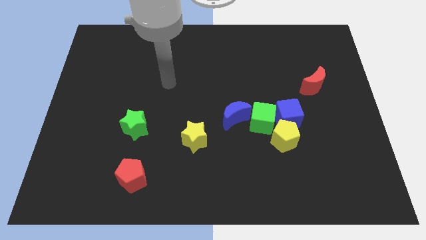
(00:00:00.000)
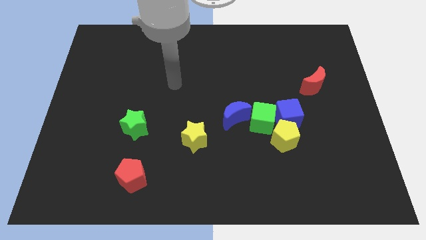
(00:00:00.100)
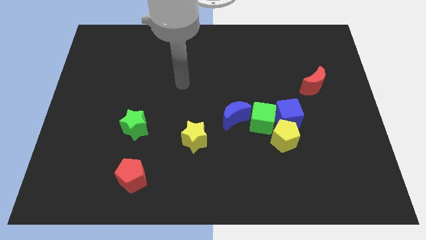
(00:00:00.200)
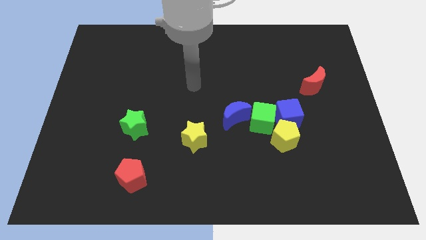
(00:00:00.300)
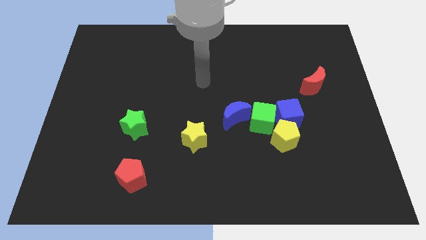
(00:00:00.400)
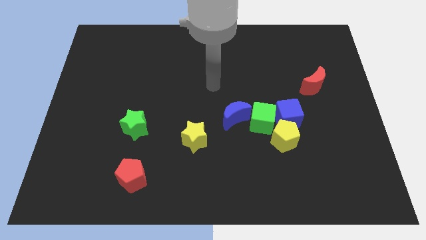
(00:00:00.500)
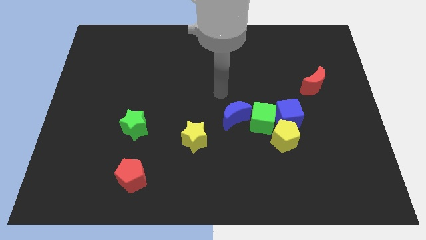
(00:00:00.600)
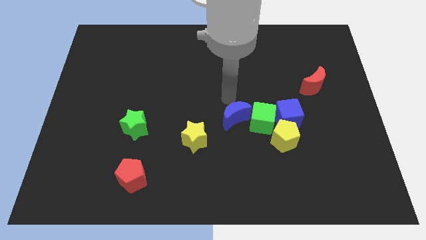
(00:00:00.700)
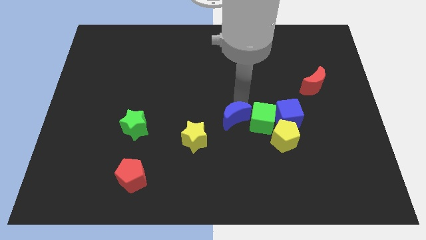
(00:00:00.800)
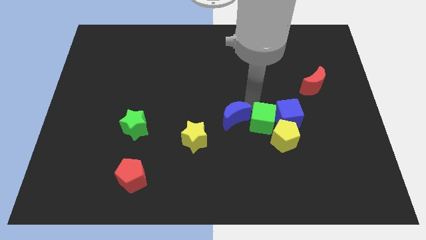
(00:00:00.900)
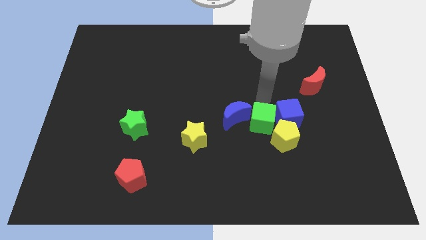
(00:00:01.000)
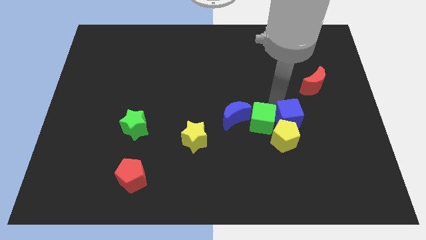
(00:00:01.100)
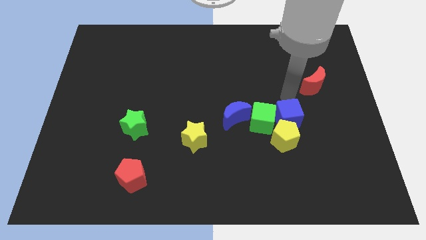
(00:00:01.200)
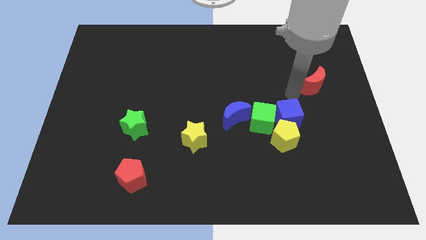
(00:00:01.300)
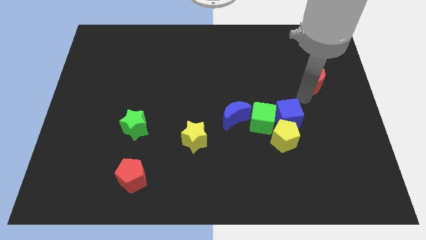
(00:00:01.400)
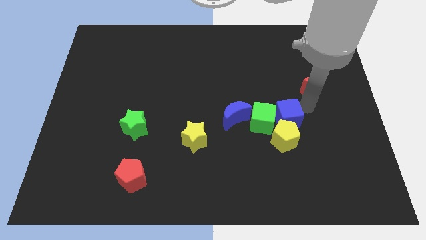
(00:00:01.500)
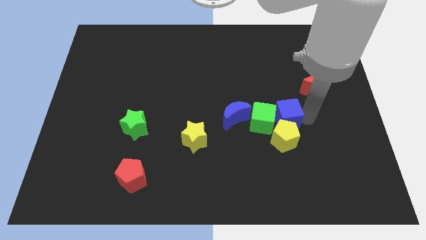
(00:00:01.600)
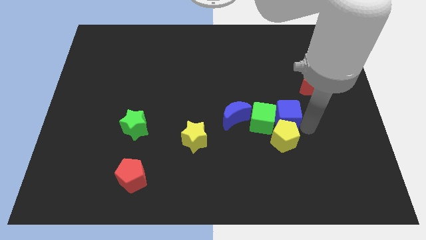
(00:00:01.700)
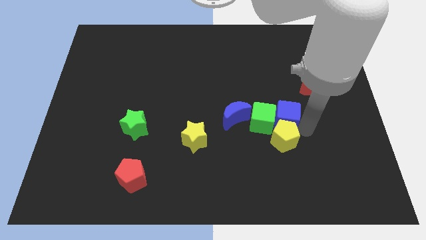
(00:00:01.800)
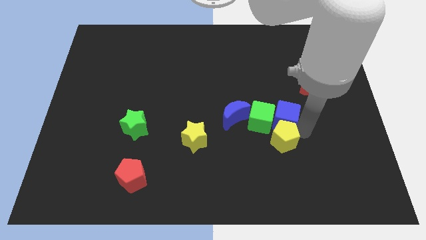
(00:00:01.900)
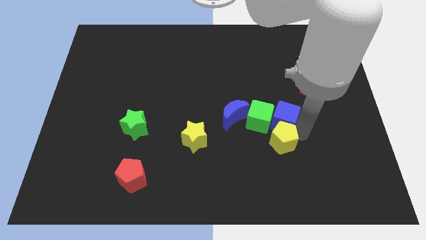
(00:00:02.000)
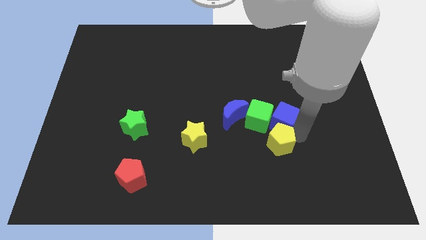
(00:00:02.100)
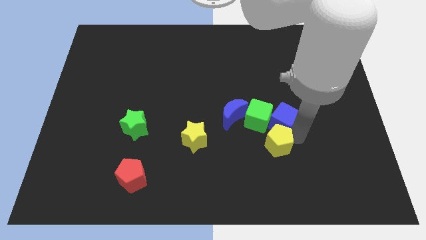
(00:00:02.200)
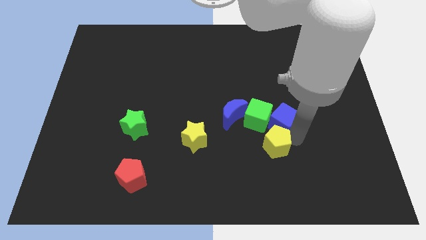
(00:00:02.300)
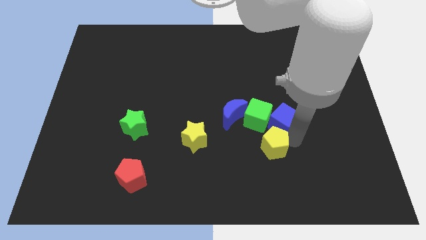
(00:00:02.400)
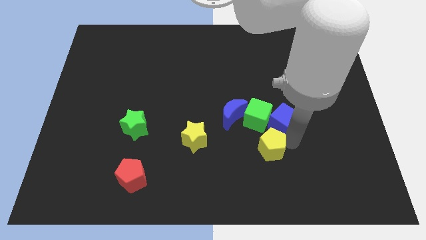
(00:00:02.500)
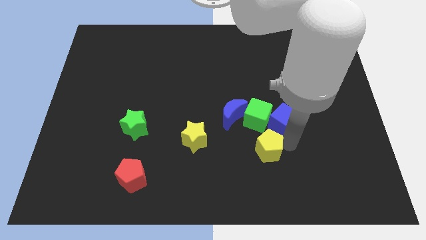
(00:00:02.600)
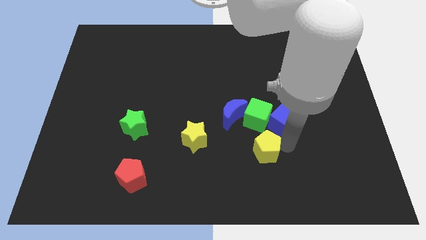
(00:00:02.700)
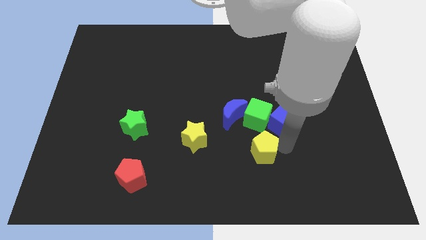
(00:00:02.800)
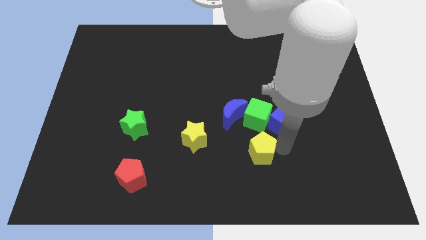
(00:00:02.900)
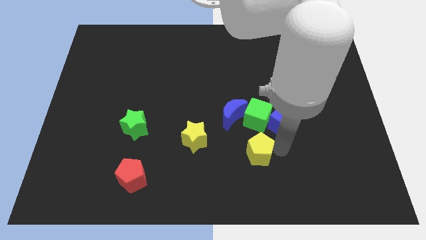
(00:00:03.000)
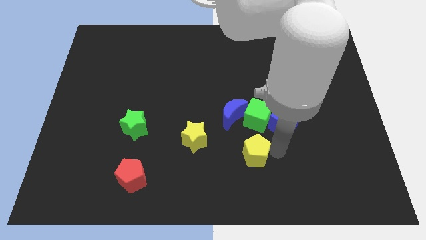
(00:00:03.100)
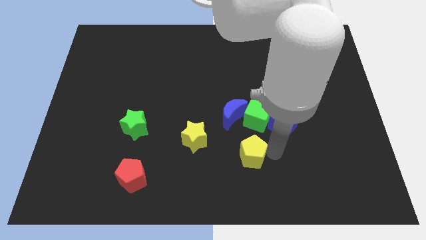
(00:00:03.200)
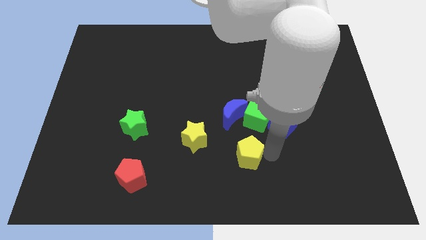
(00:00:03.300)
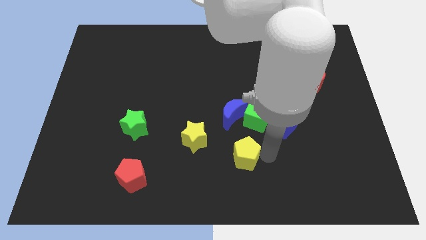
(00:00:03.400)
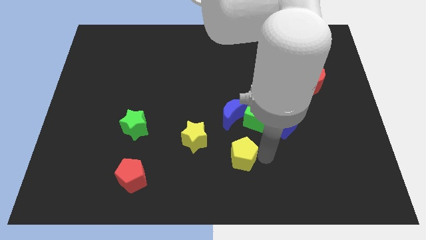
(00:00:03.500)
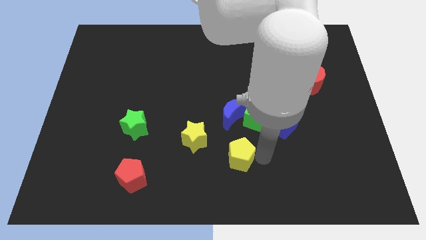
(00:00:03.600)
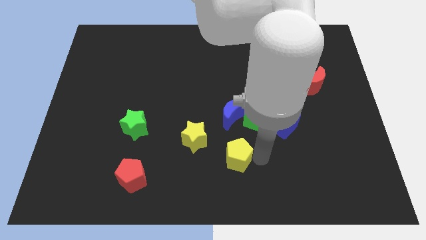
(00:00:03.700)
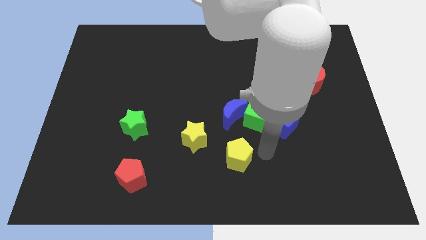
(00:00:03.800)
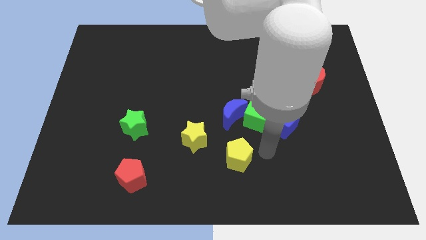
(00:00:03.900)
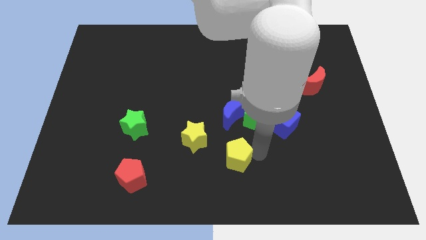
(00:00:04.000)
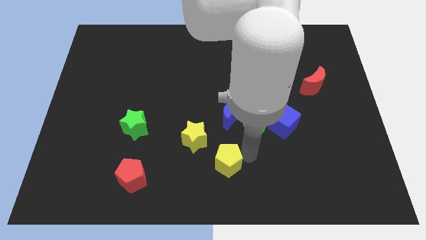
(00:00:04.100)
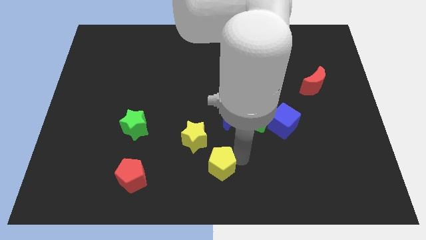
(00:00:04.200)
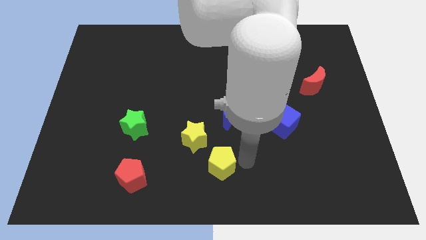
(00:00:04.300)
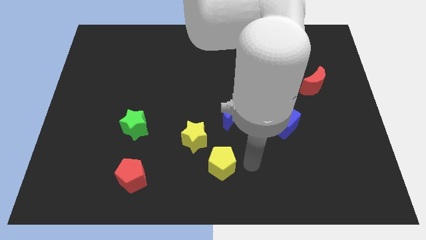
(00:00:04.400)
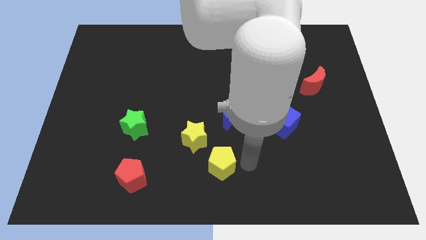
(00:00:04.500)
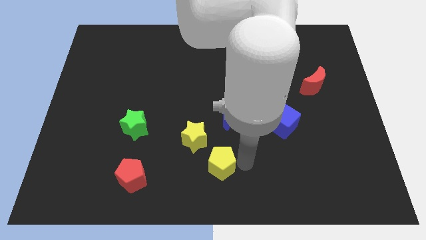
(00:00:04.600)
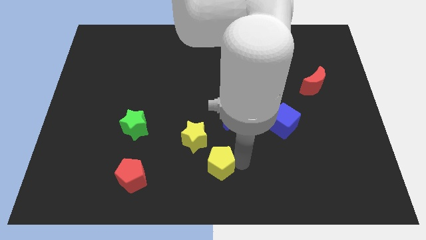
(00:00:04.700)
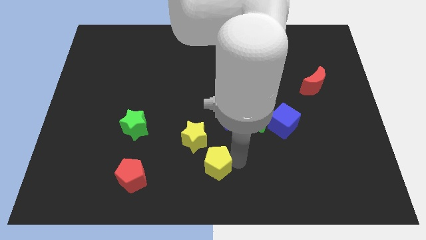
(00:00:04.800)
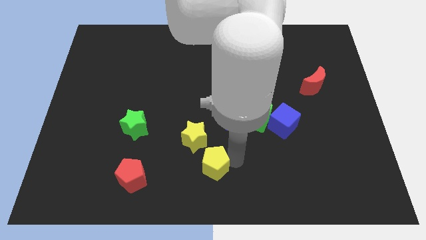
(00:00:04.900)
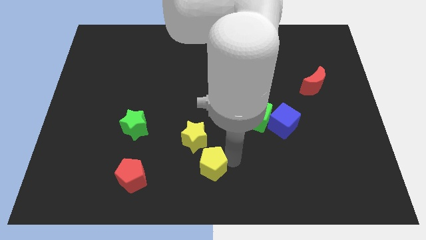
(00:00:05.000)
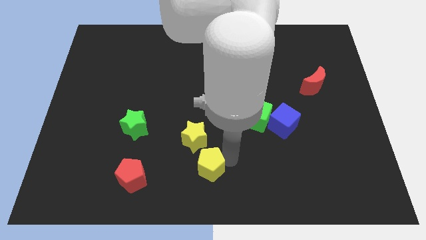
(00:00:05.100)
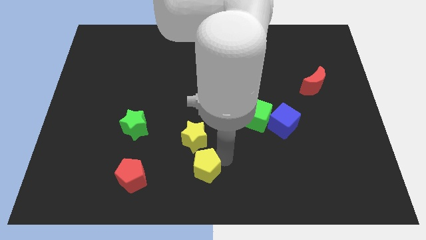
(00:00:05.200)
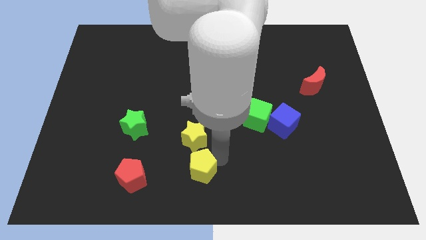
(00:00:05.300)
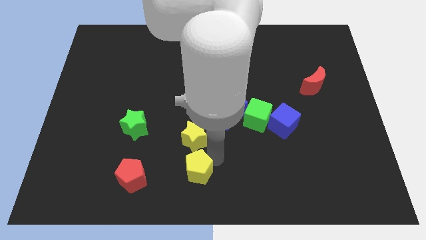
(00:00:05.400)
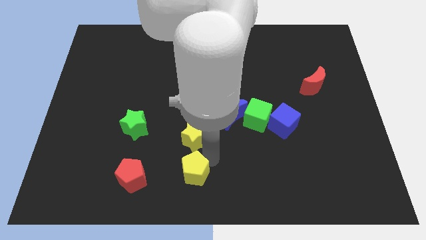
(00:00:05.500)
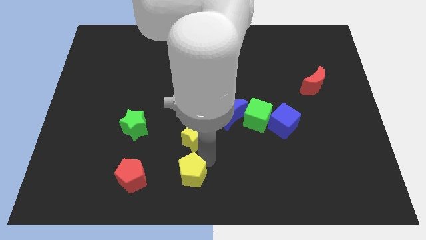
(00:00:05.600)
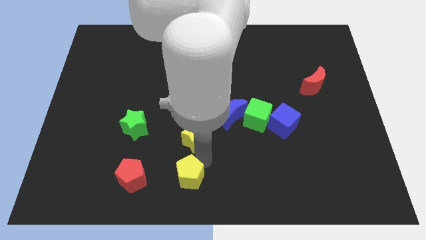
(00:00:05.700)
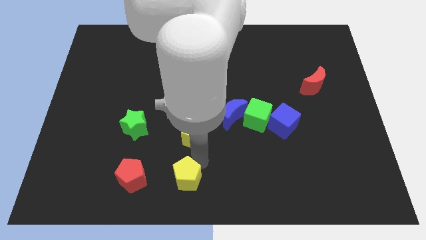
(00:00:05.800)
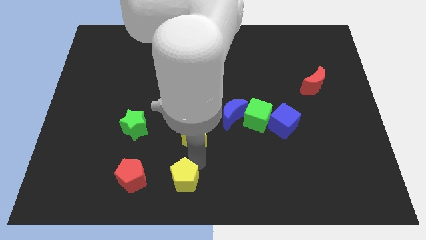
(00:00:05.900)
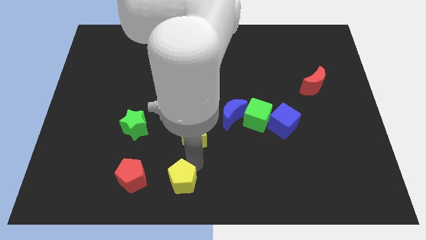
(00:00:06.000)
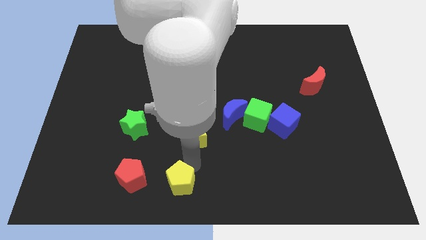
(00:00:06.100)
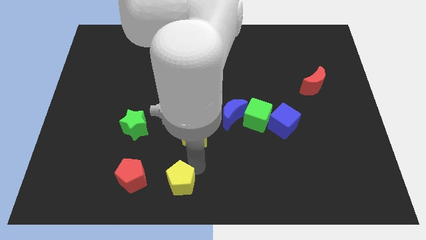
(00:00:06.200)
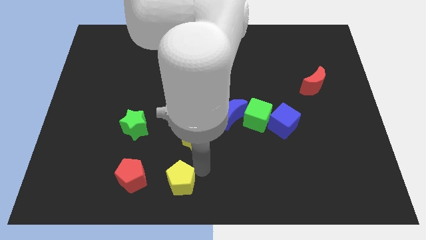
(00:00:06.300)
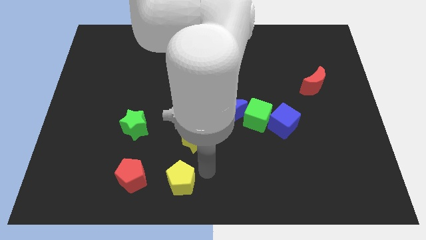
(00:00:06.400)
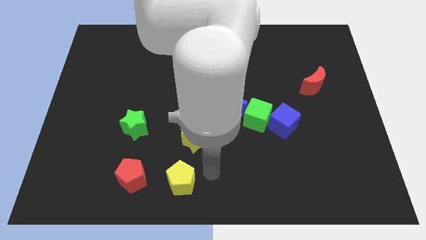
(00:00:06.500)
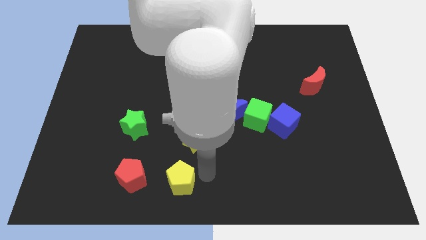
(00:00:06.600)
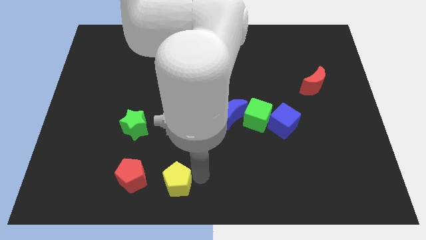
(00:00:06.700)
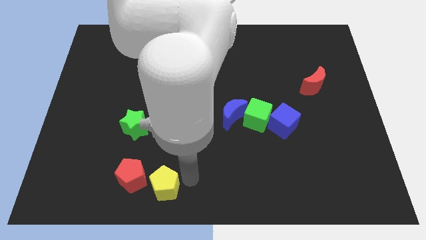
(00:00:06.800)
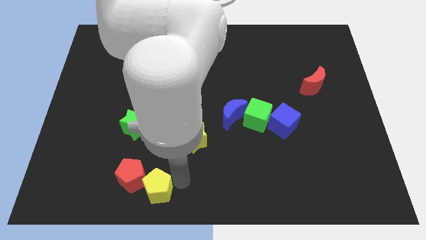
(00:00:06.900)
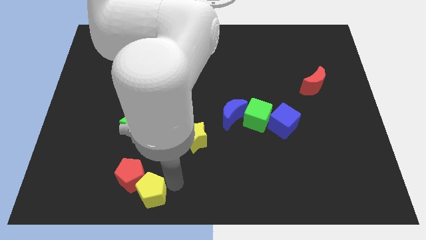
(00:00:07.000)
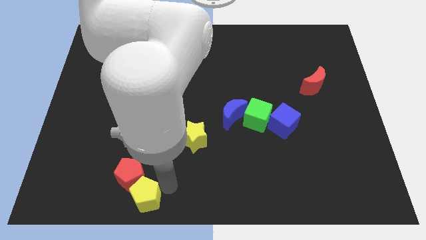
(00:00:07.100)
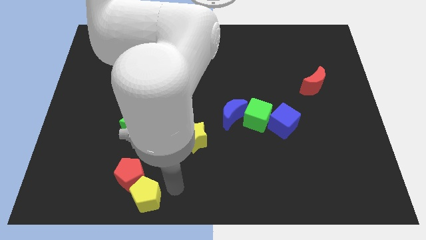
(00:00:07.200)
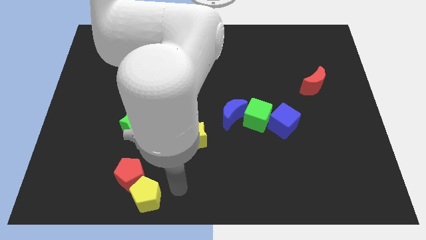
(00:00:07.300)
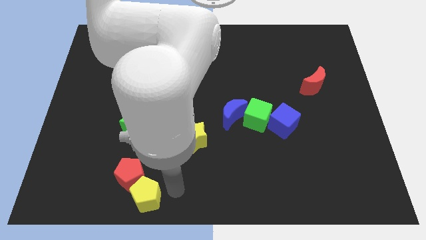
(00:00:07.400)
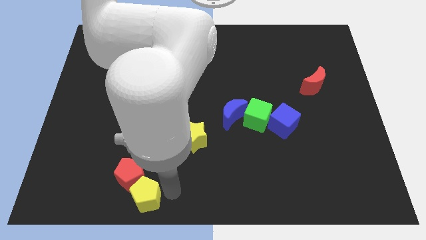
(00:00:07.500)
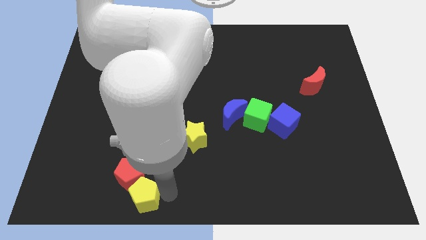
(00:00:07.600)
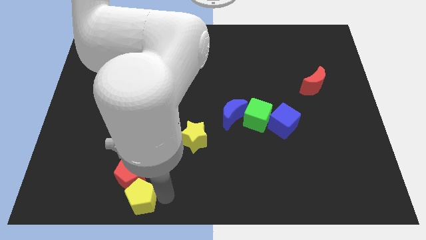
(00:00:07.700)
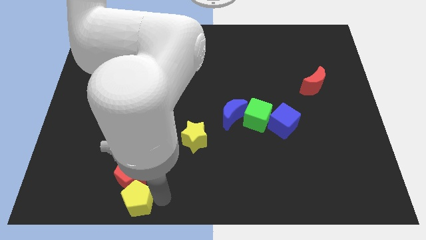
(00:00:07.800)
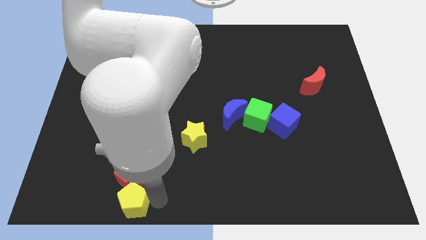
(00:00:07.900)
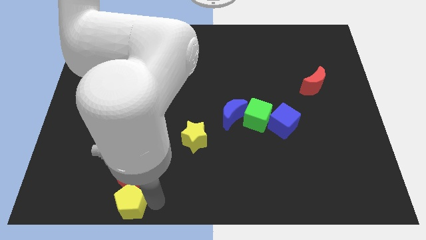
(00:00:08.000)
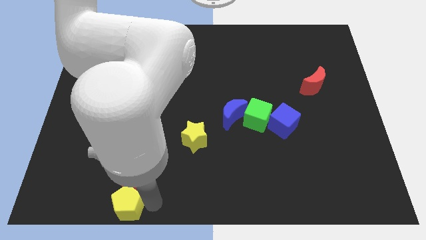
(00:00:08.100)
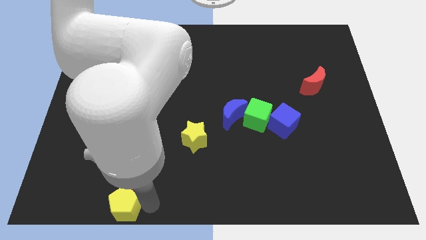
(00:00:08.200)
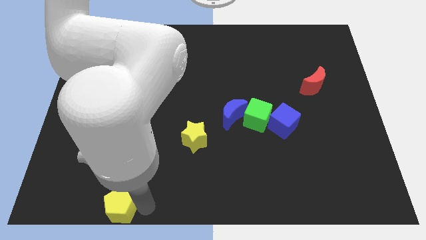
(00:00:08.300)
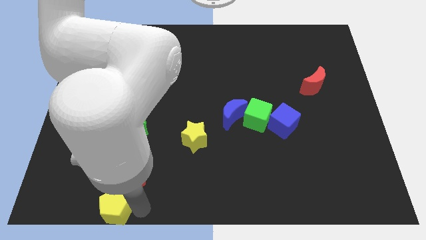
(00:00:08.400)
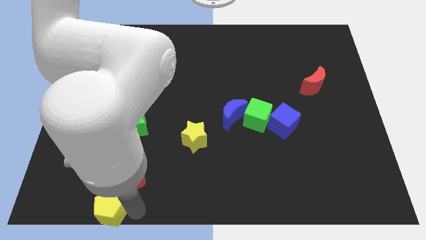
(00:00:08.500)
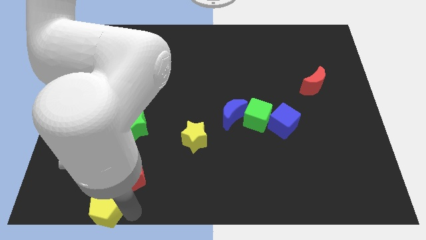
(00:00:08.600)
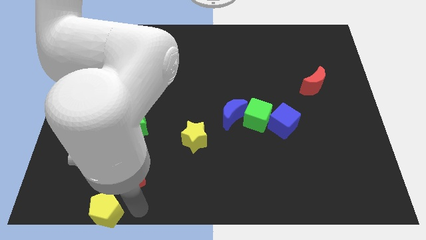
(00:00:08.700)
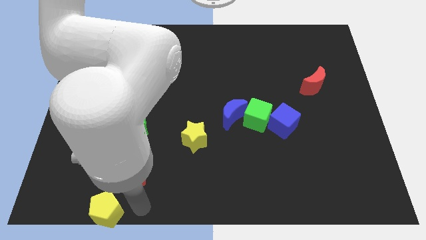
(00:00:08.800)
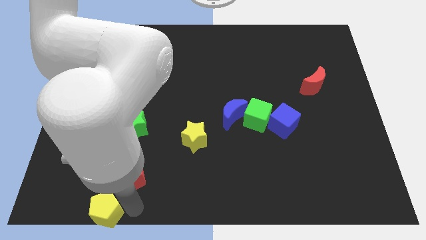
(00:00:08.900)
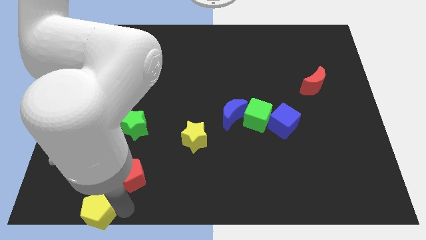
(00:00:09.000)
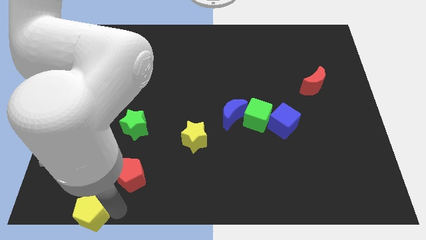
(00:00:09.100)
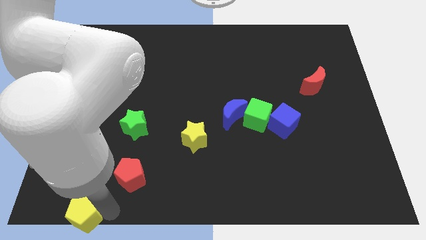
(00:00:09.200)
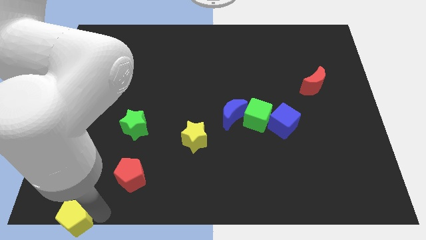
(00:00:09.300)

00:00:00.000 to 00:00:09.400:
move the yellow pentagon to the bottom left corner
